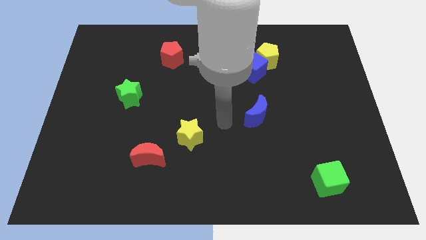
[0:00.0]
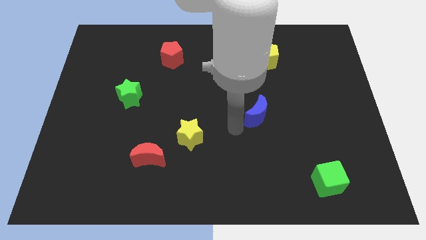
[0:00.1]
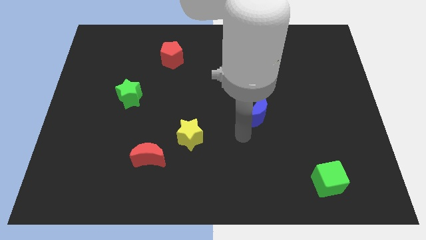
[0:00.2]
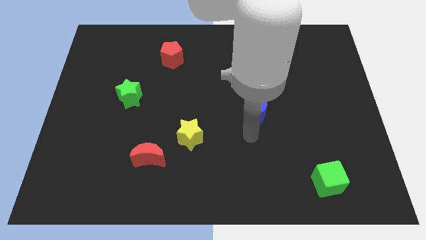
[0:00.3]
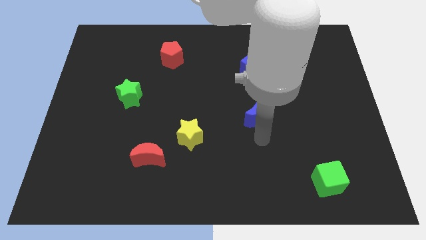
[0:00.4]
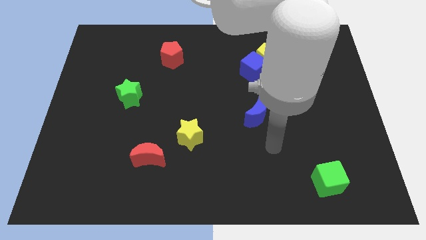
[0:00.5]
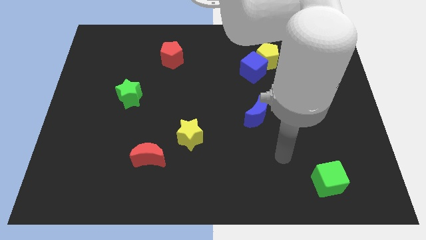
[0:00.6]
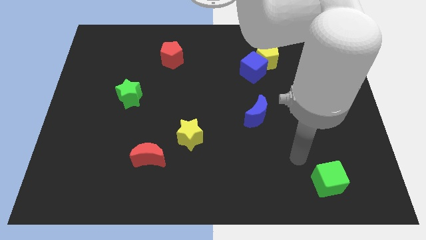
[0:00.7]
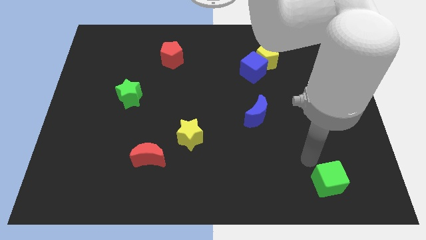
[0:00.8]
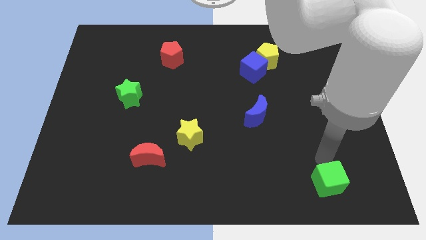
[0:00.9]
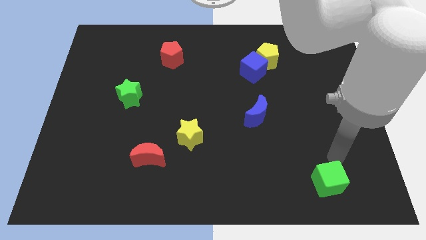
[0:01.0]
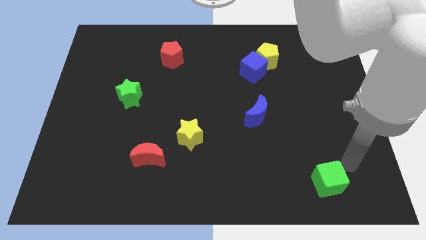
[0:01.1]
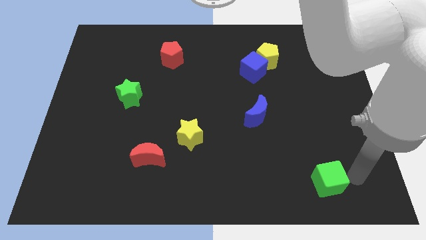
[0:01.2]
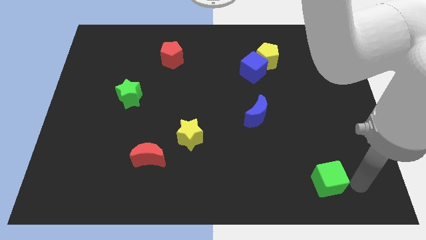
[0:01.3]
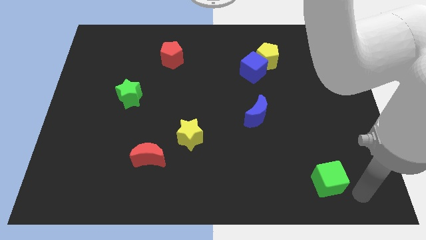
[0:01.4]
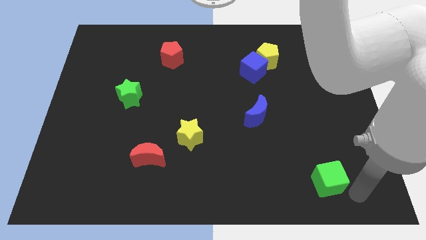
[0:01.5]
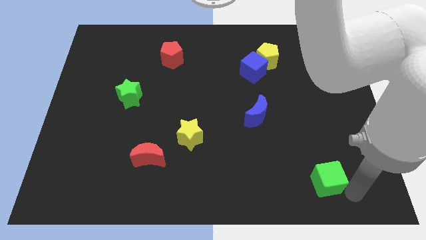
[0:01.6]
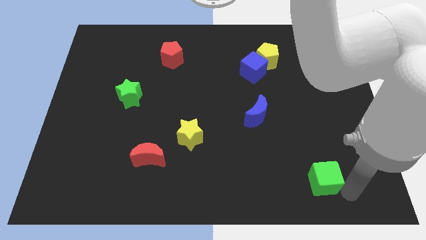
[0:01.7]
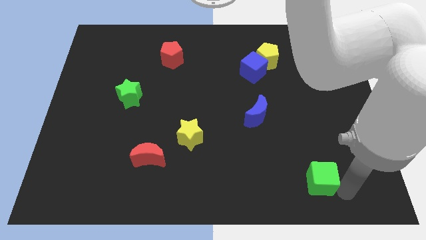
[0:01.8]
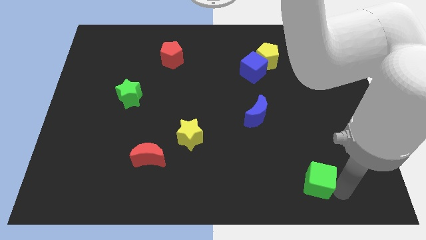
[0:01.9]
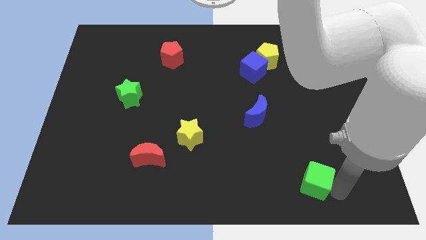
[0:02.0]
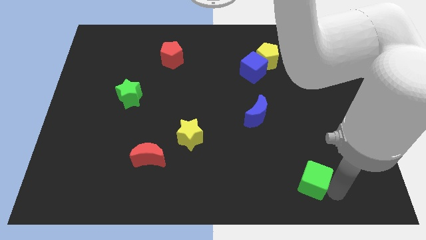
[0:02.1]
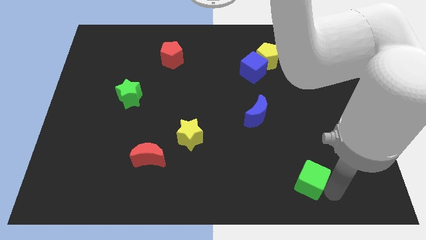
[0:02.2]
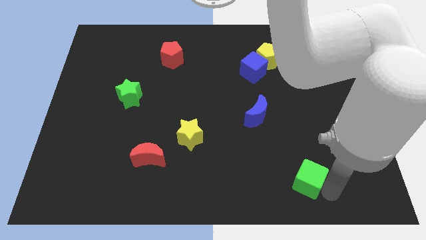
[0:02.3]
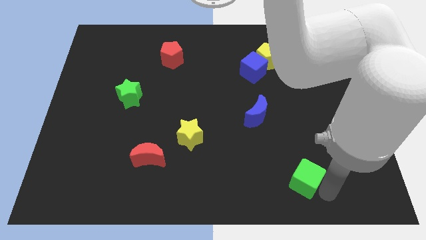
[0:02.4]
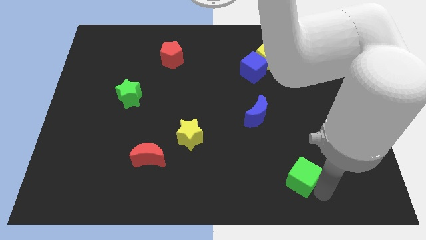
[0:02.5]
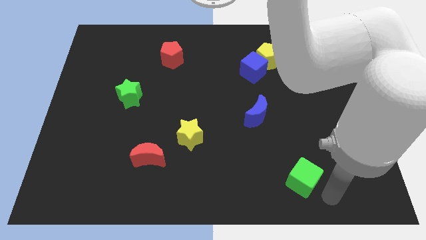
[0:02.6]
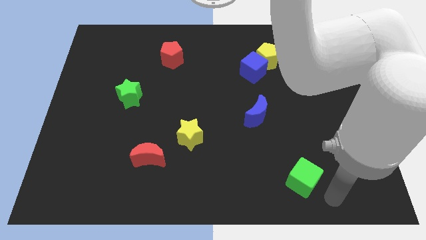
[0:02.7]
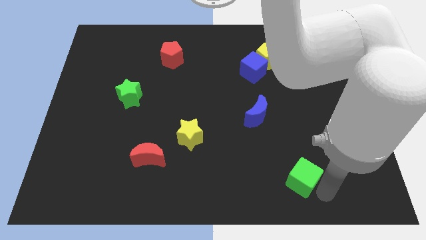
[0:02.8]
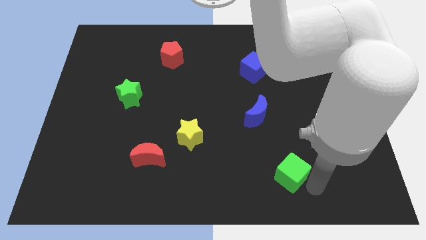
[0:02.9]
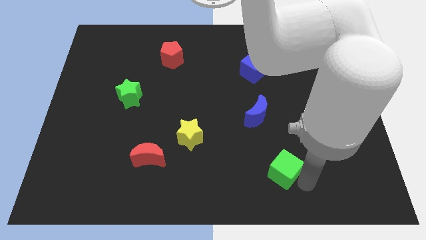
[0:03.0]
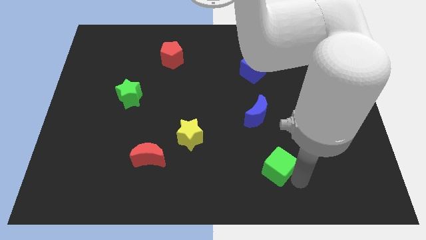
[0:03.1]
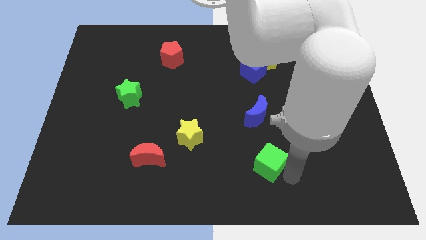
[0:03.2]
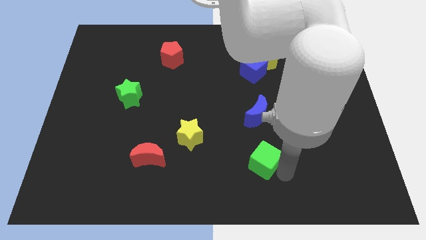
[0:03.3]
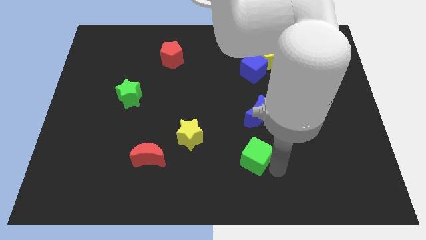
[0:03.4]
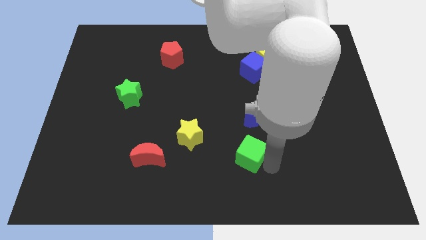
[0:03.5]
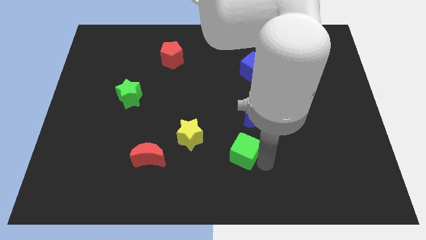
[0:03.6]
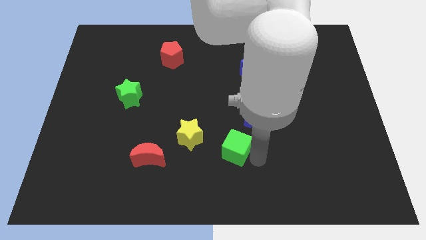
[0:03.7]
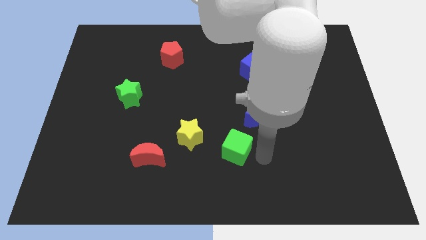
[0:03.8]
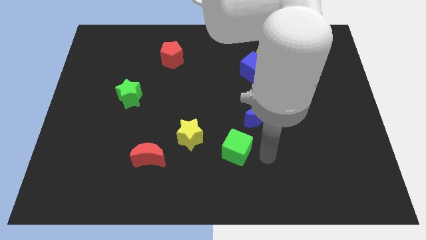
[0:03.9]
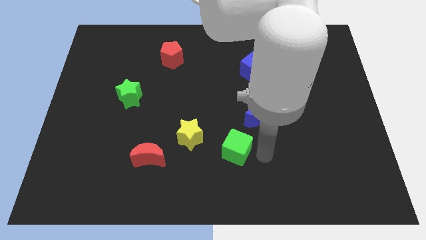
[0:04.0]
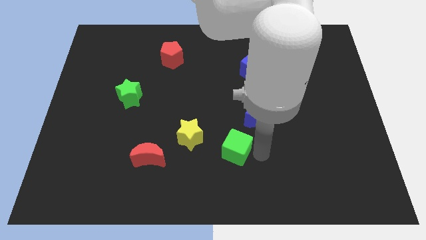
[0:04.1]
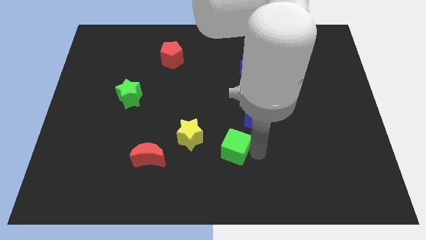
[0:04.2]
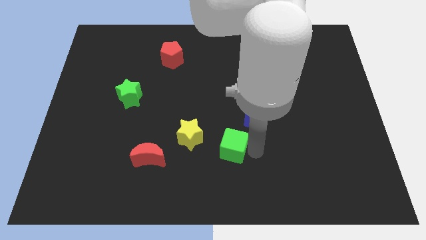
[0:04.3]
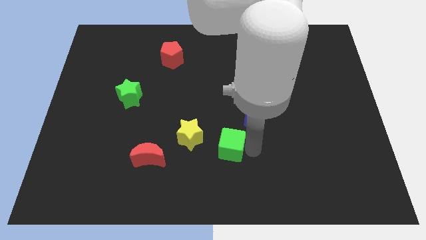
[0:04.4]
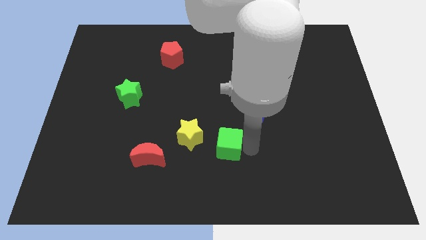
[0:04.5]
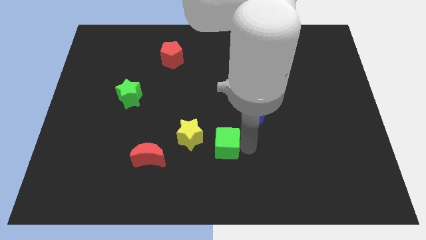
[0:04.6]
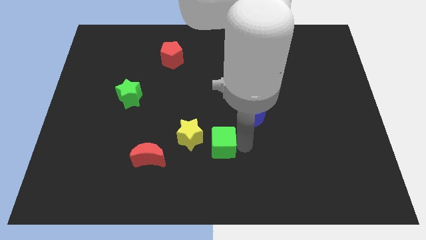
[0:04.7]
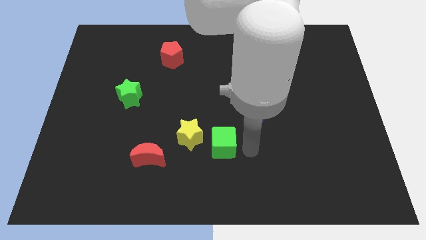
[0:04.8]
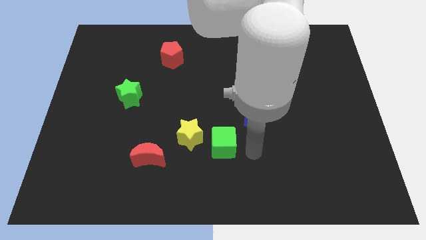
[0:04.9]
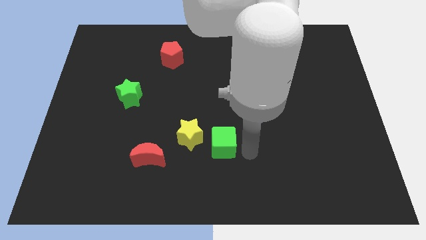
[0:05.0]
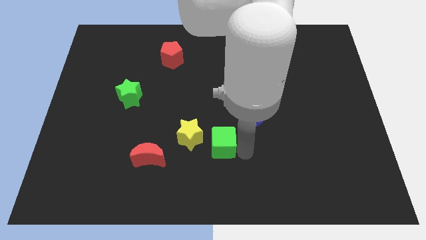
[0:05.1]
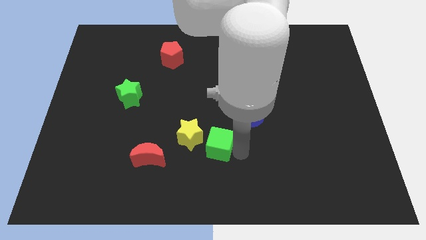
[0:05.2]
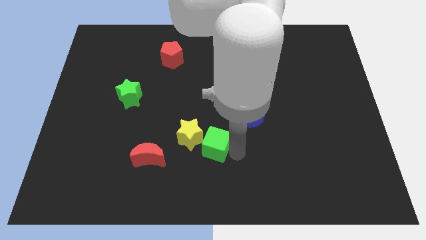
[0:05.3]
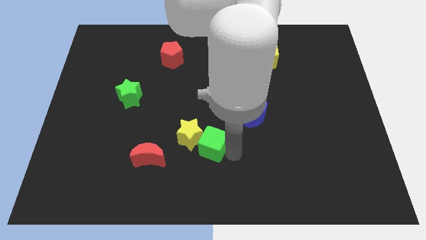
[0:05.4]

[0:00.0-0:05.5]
slide the green cube to the yellow star

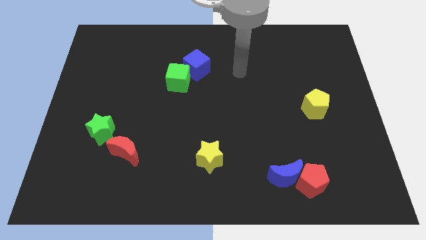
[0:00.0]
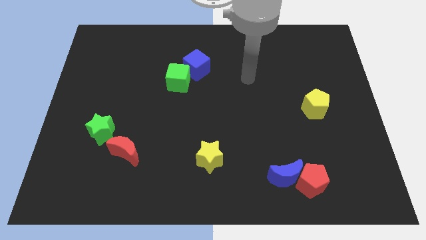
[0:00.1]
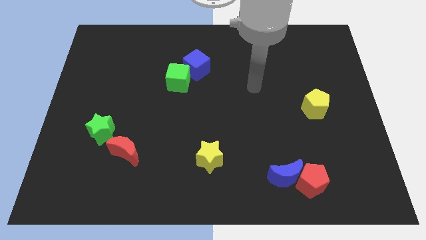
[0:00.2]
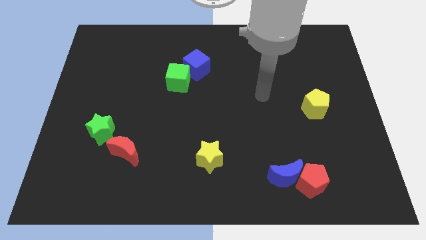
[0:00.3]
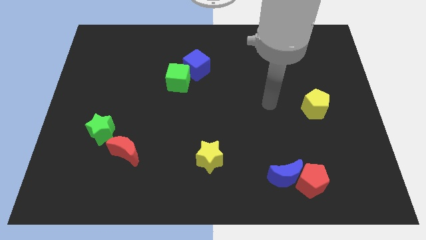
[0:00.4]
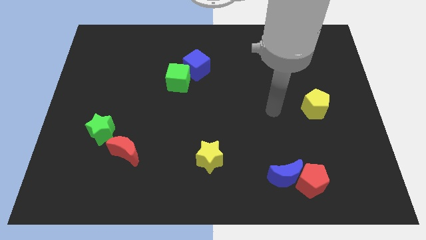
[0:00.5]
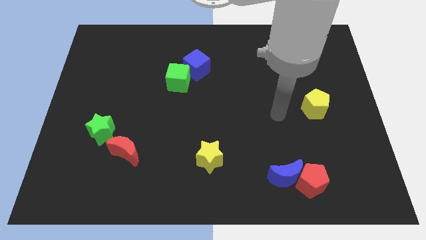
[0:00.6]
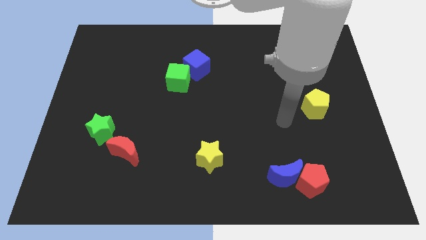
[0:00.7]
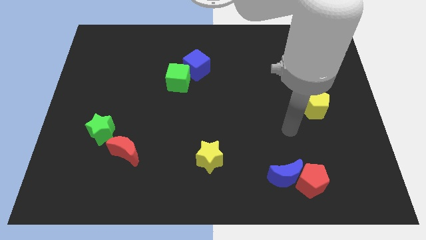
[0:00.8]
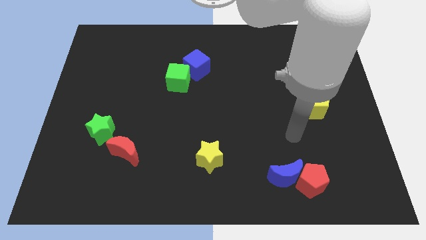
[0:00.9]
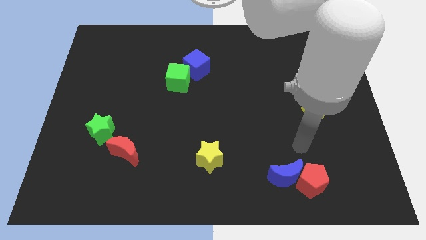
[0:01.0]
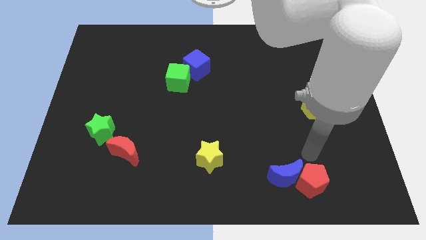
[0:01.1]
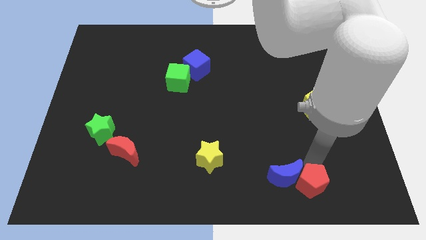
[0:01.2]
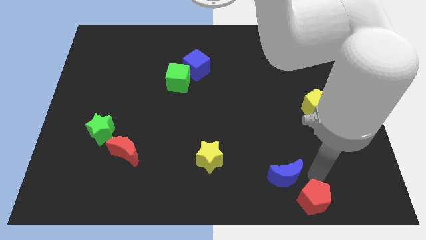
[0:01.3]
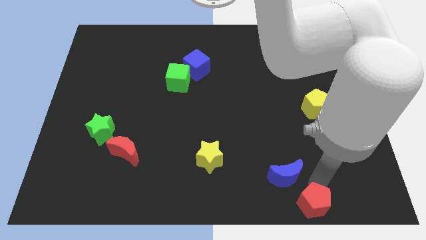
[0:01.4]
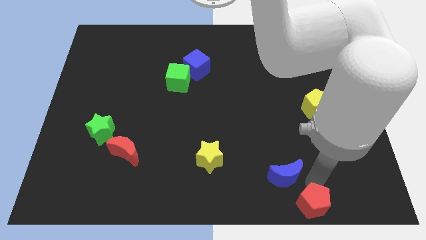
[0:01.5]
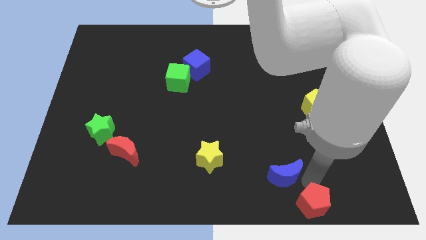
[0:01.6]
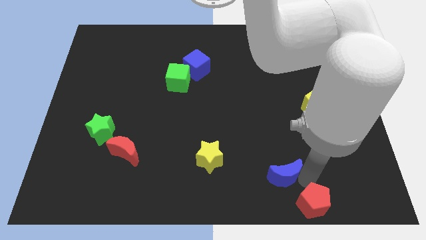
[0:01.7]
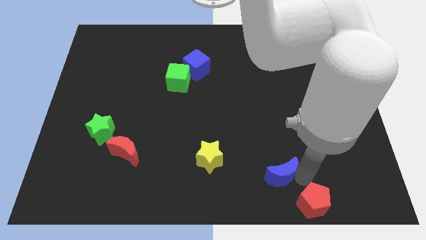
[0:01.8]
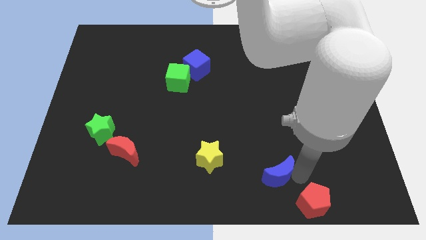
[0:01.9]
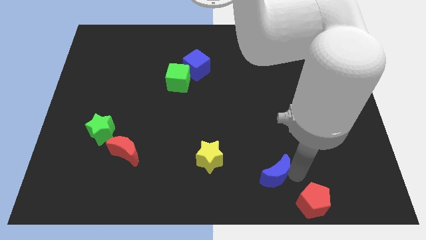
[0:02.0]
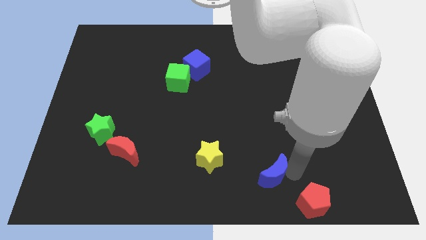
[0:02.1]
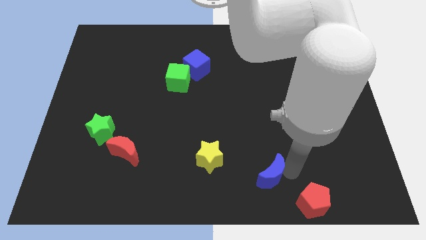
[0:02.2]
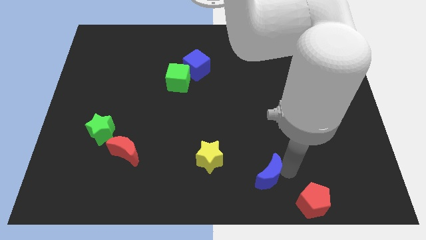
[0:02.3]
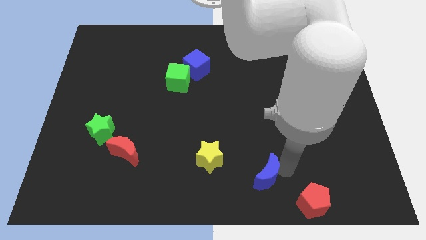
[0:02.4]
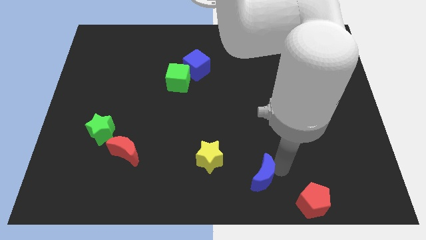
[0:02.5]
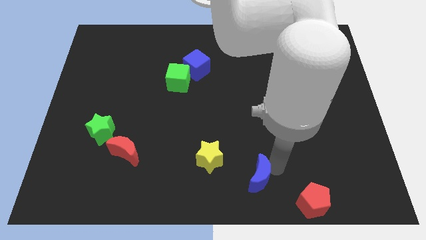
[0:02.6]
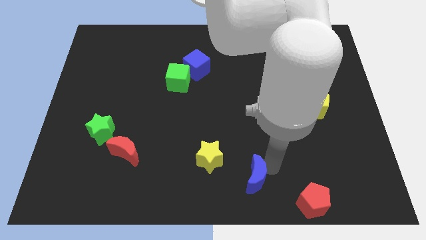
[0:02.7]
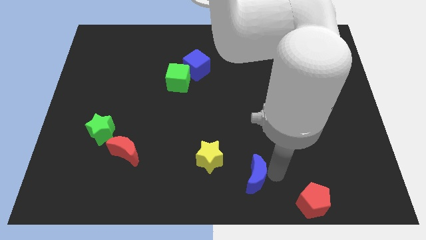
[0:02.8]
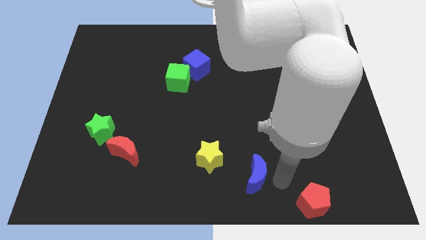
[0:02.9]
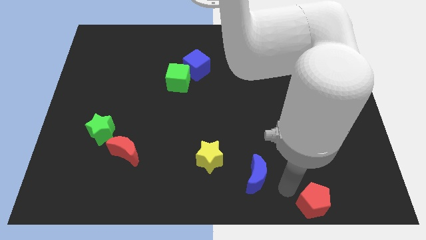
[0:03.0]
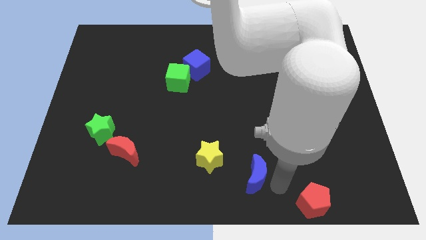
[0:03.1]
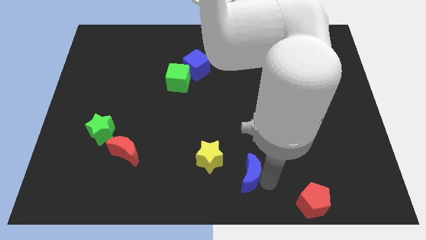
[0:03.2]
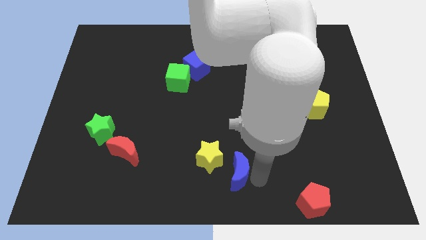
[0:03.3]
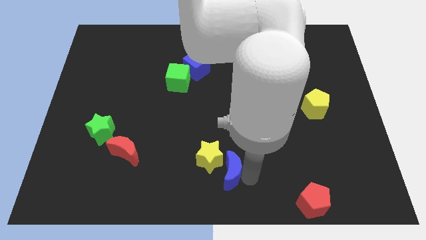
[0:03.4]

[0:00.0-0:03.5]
move the blue moon close to the yellow star
